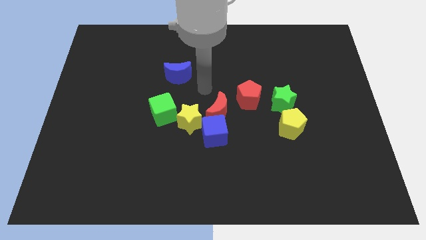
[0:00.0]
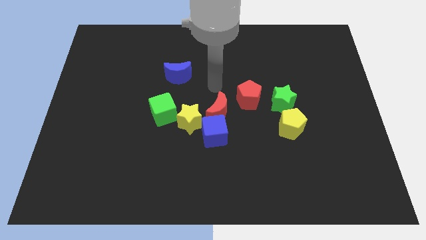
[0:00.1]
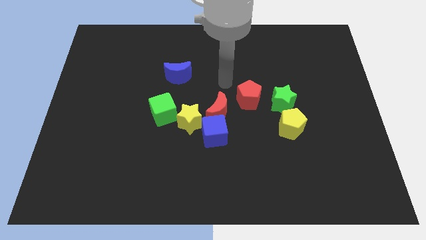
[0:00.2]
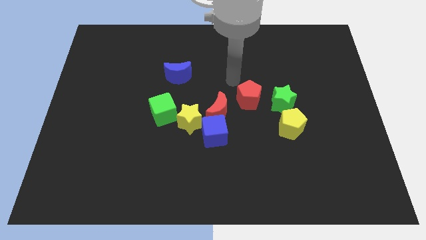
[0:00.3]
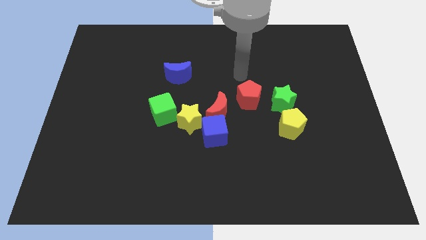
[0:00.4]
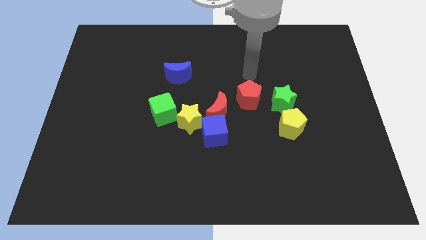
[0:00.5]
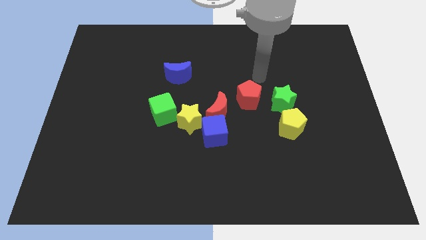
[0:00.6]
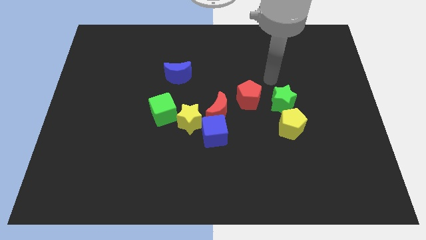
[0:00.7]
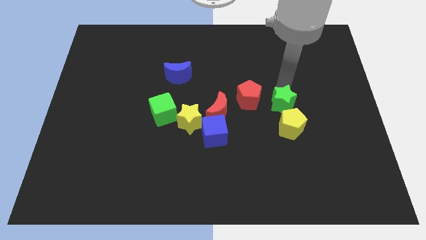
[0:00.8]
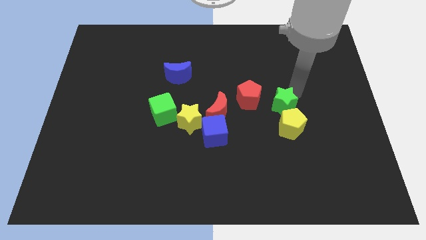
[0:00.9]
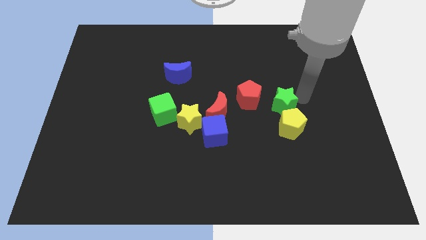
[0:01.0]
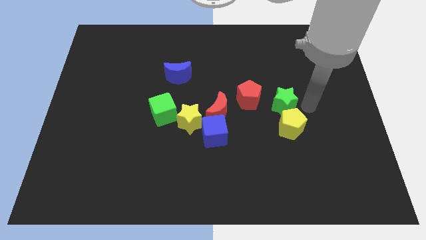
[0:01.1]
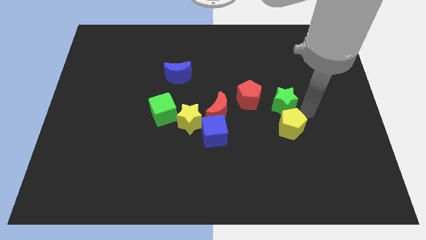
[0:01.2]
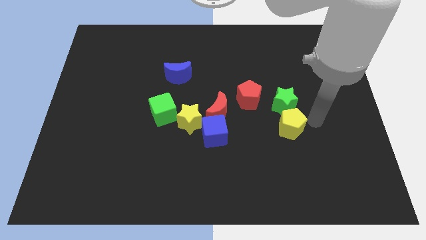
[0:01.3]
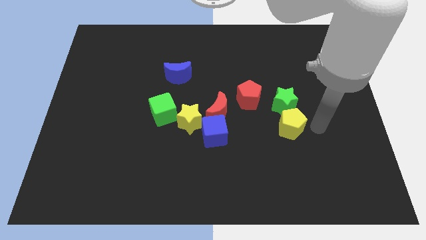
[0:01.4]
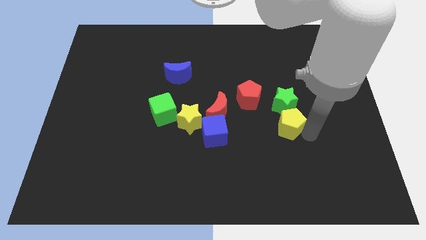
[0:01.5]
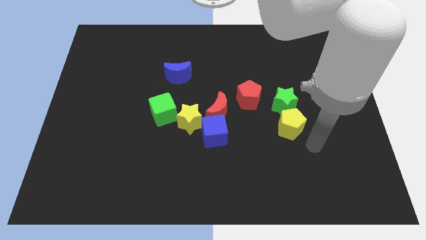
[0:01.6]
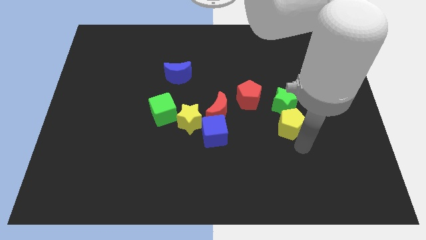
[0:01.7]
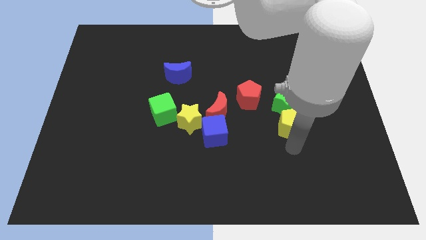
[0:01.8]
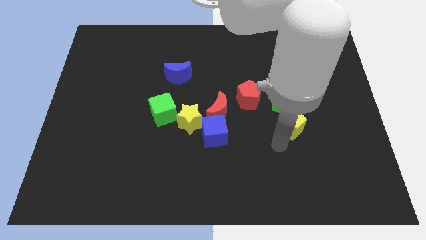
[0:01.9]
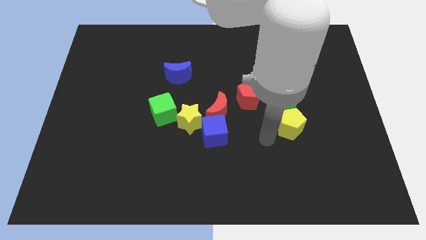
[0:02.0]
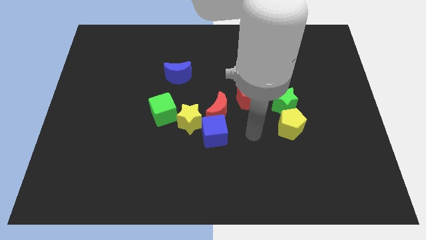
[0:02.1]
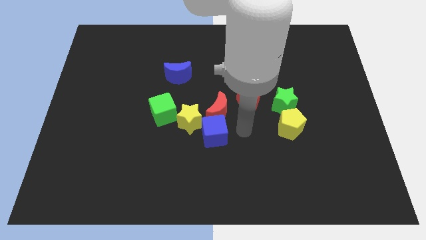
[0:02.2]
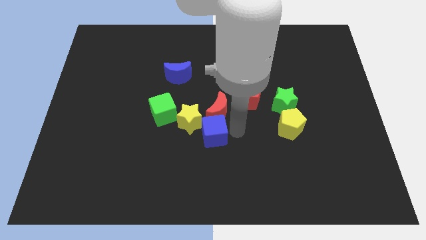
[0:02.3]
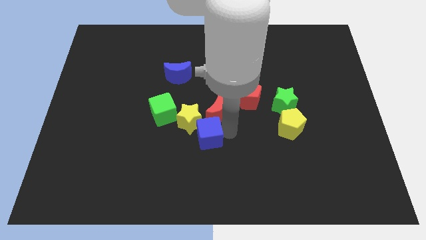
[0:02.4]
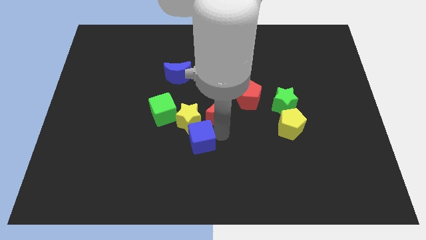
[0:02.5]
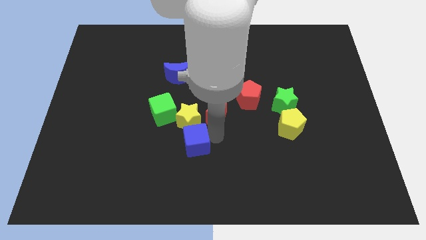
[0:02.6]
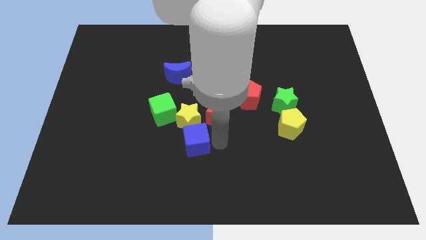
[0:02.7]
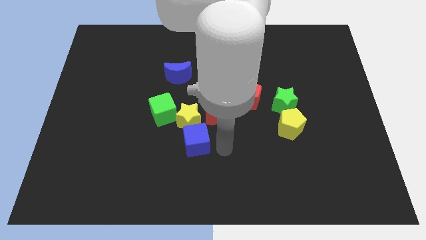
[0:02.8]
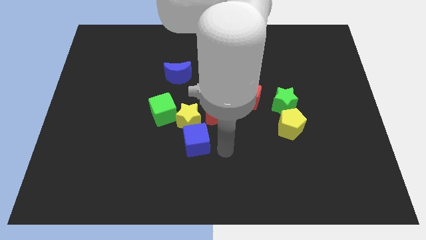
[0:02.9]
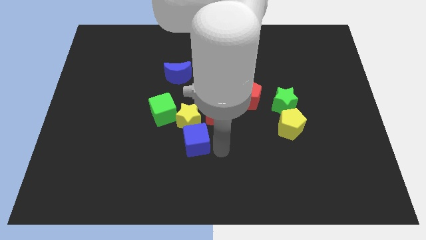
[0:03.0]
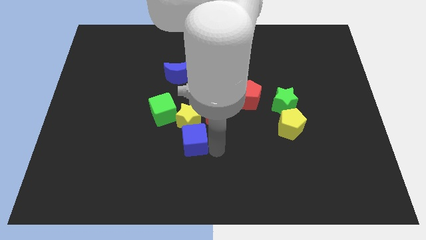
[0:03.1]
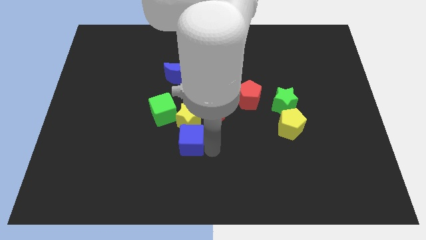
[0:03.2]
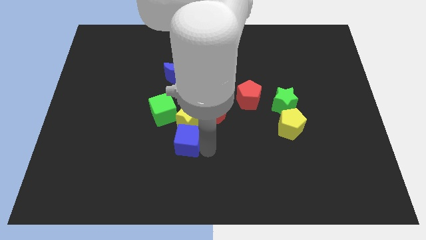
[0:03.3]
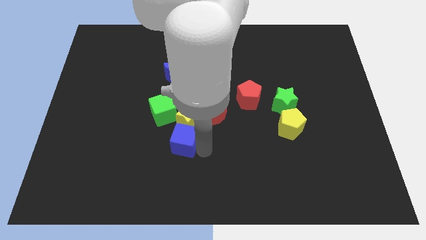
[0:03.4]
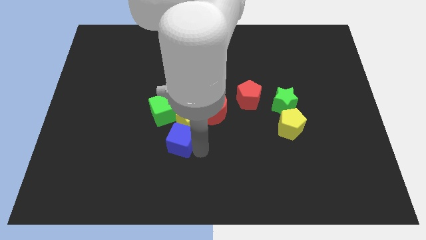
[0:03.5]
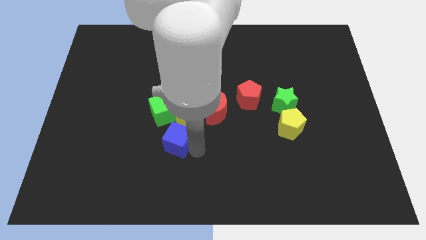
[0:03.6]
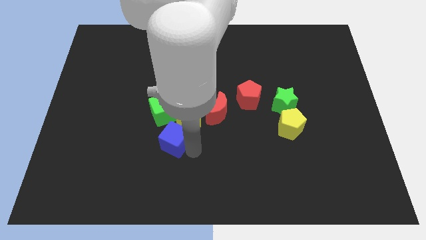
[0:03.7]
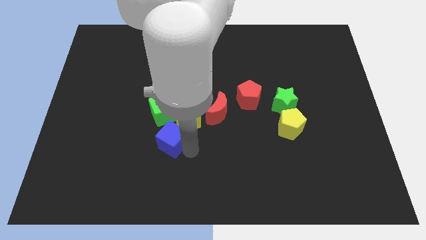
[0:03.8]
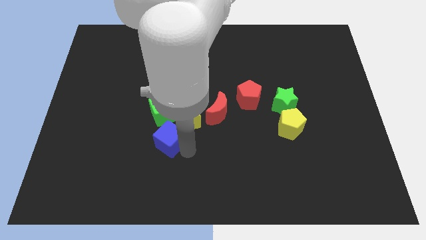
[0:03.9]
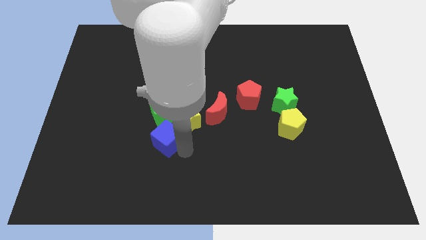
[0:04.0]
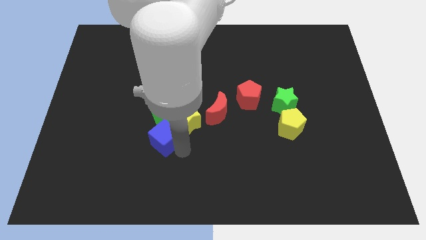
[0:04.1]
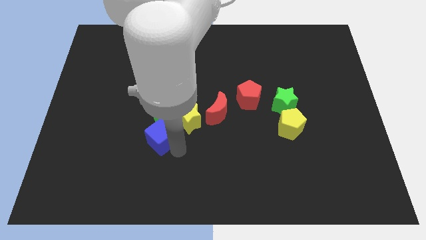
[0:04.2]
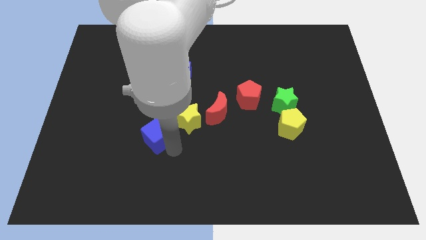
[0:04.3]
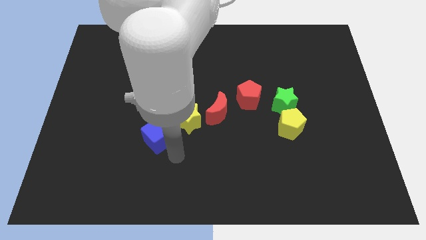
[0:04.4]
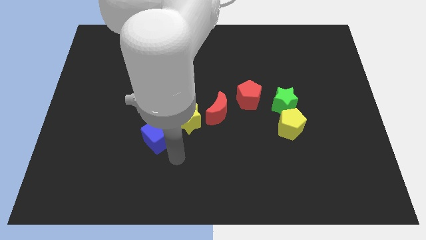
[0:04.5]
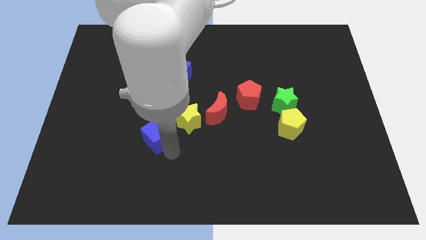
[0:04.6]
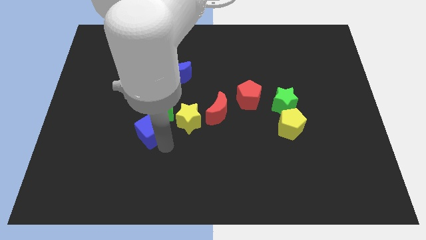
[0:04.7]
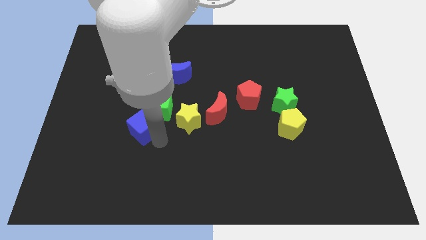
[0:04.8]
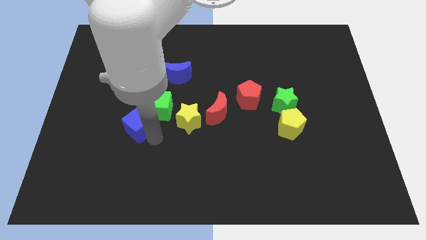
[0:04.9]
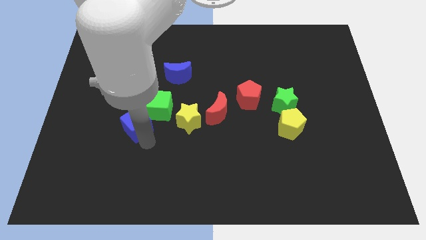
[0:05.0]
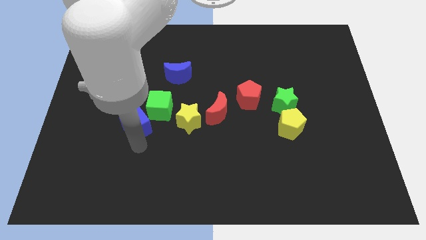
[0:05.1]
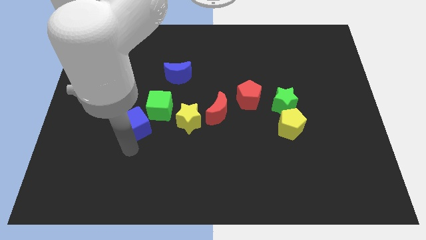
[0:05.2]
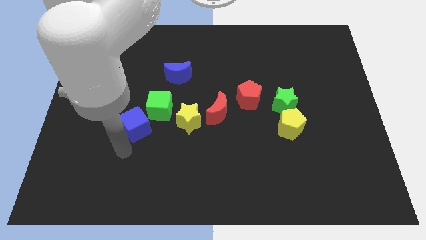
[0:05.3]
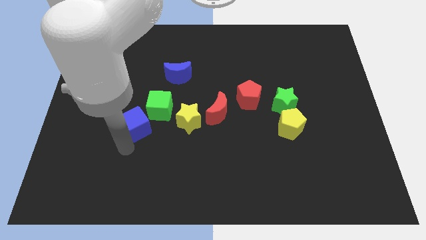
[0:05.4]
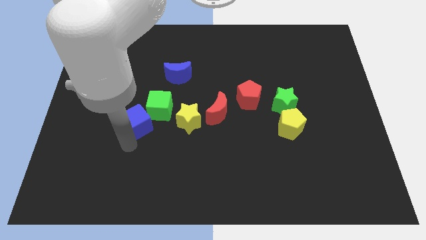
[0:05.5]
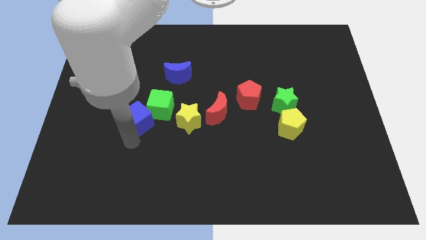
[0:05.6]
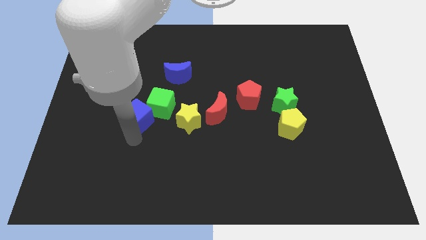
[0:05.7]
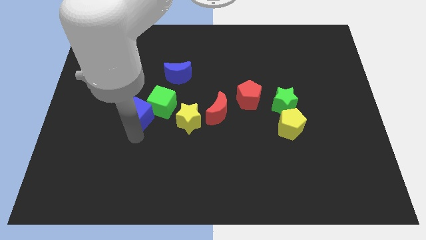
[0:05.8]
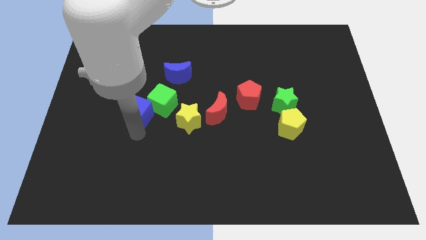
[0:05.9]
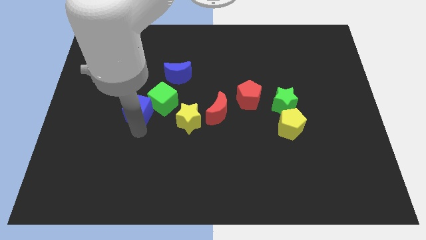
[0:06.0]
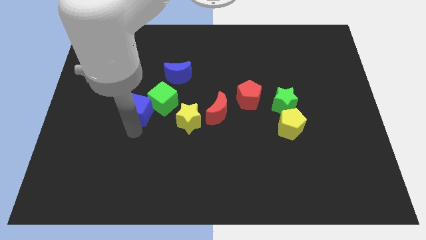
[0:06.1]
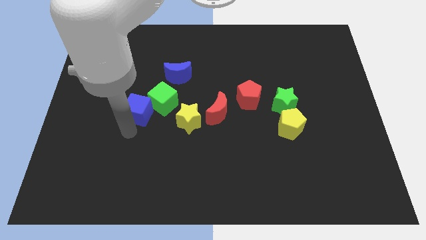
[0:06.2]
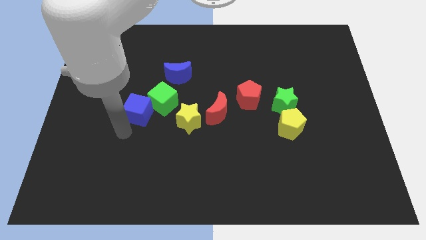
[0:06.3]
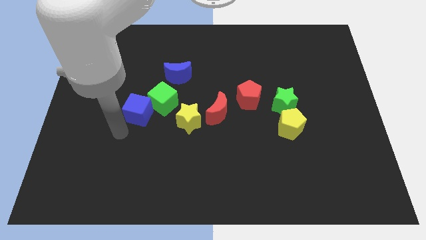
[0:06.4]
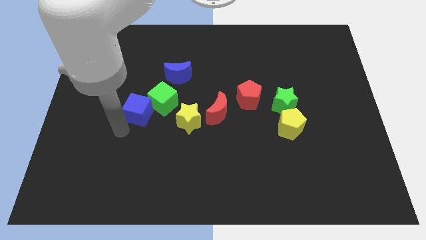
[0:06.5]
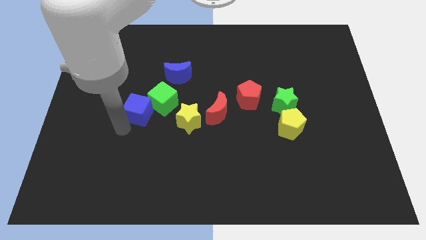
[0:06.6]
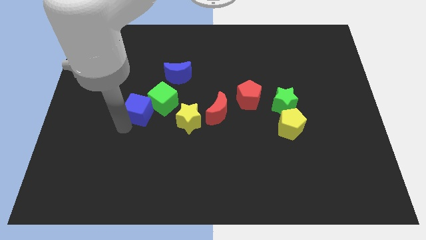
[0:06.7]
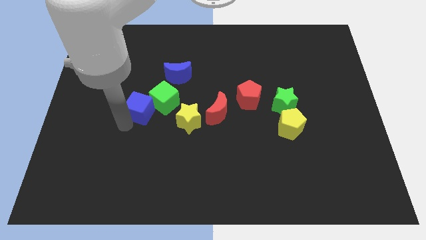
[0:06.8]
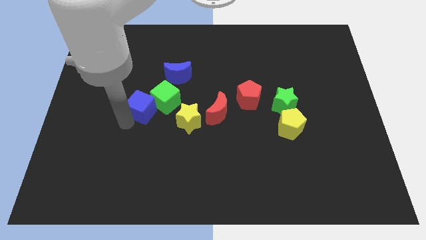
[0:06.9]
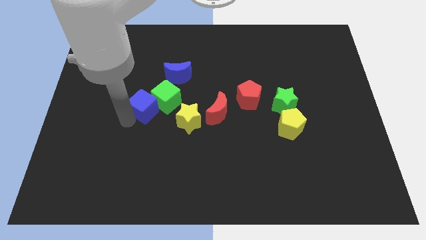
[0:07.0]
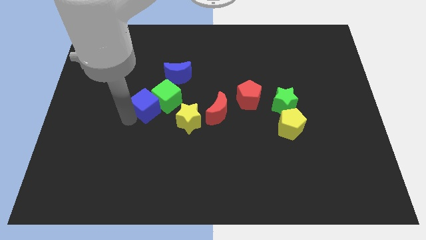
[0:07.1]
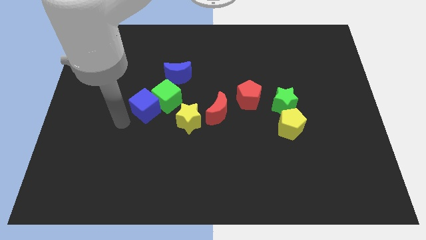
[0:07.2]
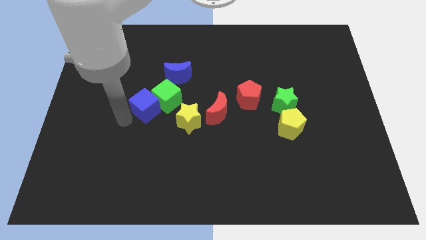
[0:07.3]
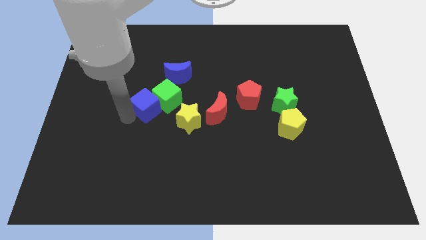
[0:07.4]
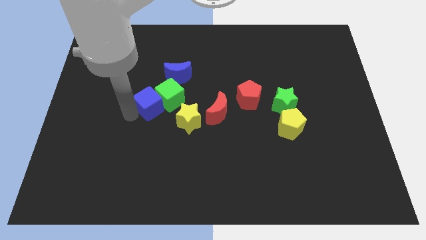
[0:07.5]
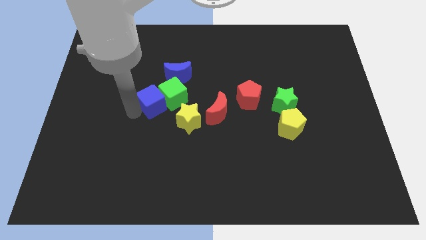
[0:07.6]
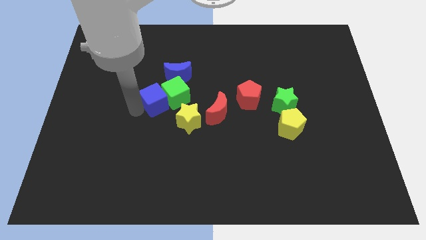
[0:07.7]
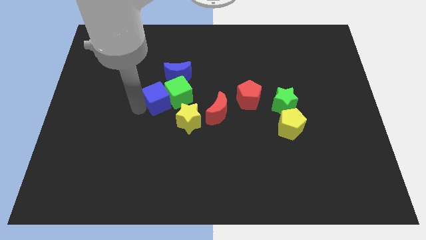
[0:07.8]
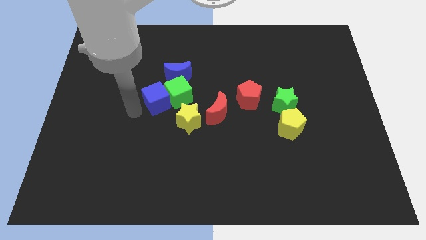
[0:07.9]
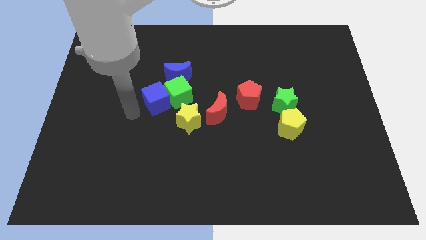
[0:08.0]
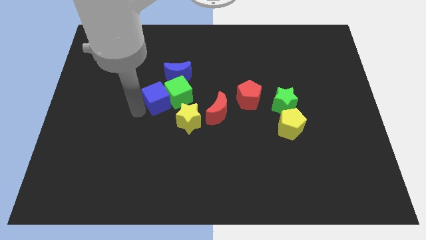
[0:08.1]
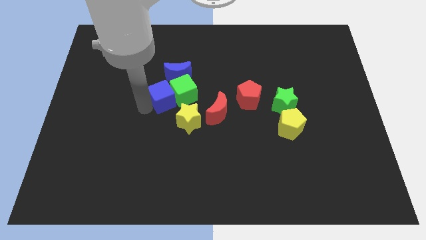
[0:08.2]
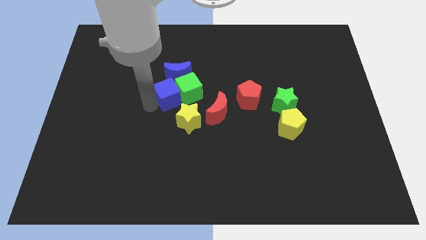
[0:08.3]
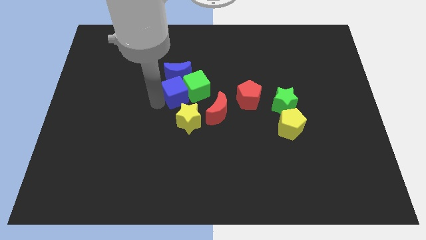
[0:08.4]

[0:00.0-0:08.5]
push the blue cube to the top of the yellow star
